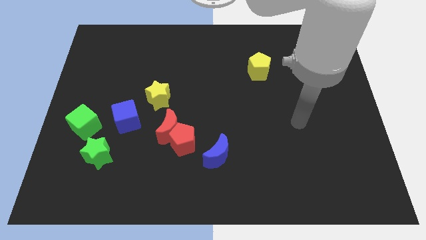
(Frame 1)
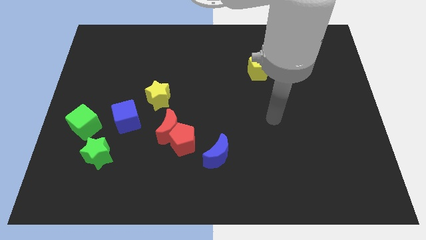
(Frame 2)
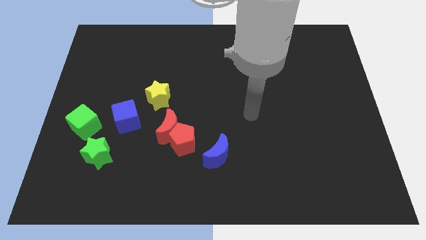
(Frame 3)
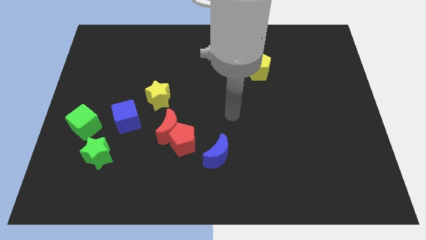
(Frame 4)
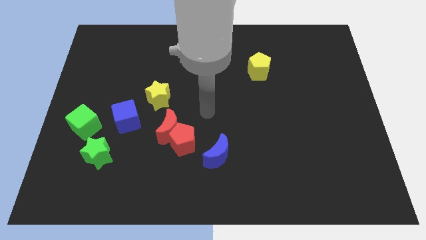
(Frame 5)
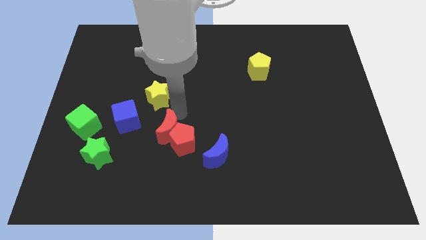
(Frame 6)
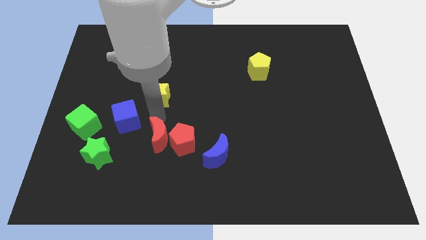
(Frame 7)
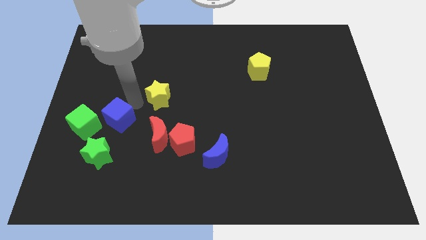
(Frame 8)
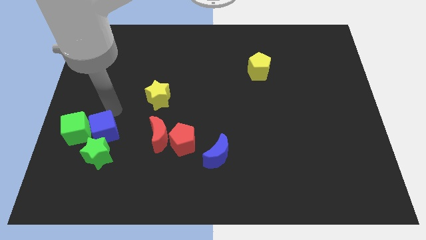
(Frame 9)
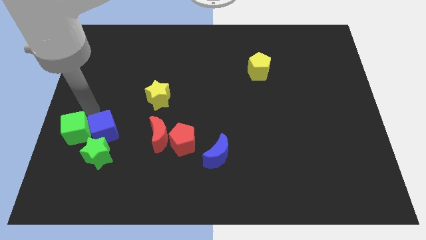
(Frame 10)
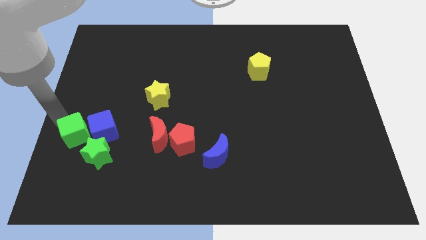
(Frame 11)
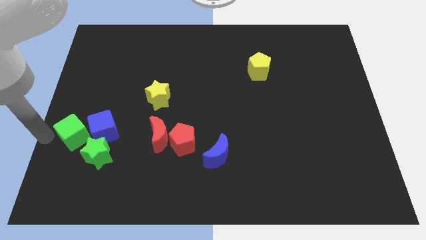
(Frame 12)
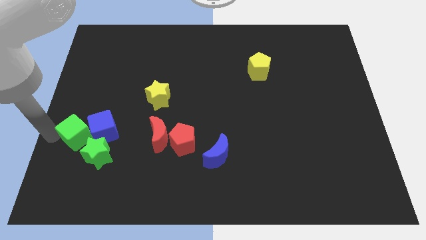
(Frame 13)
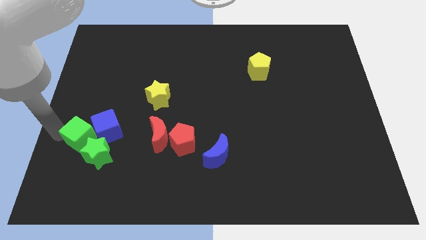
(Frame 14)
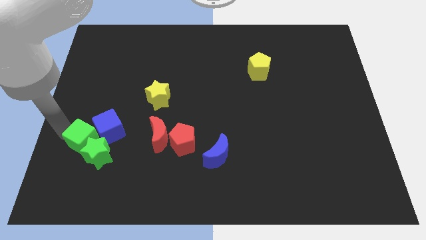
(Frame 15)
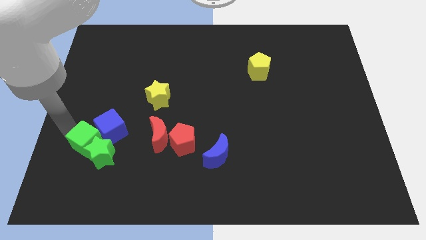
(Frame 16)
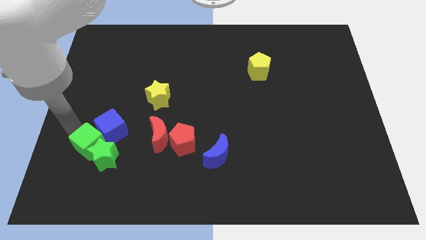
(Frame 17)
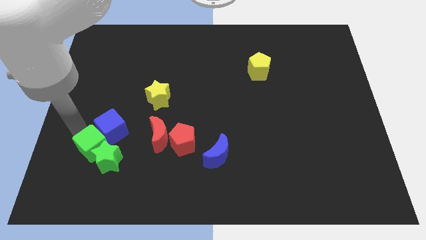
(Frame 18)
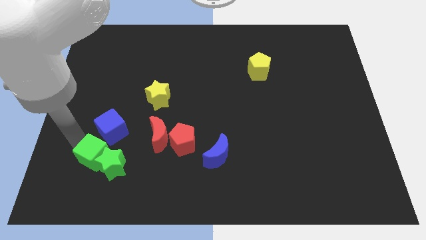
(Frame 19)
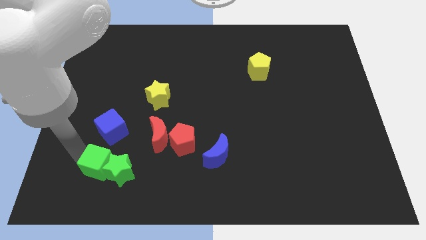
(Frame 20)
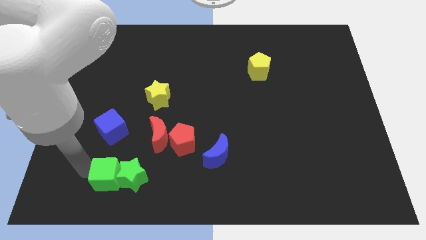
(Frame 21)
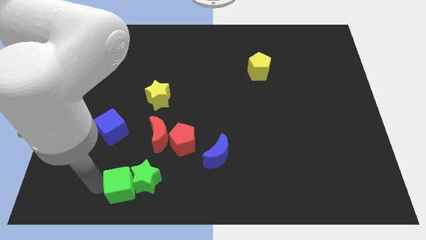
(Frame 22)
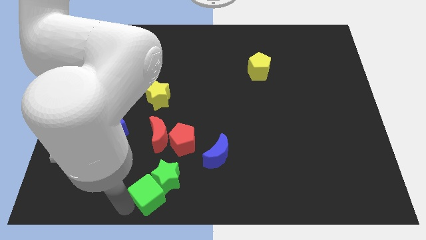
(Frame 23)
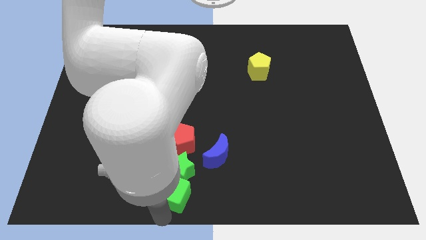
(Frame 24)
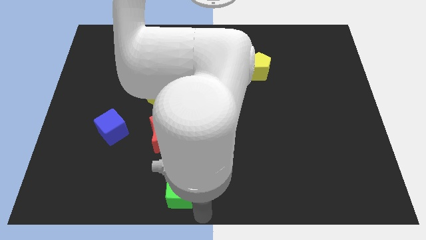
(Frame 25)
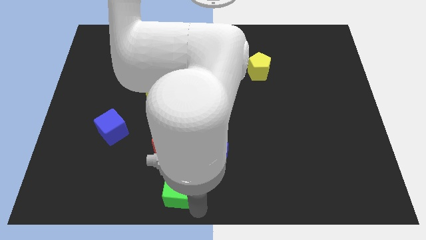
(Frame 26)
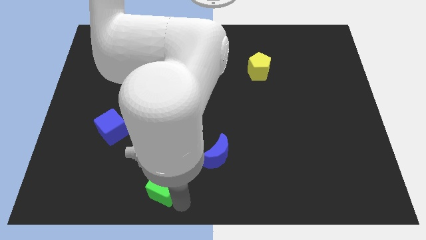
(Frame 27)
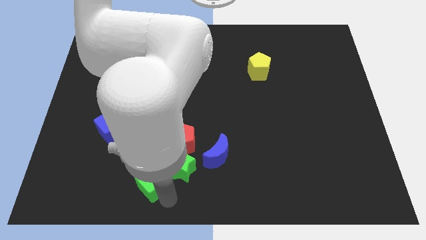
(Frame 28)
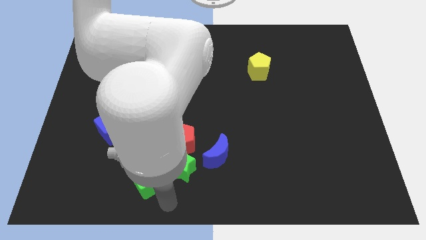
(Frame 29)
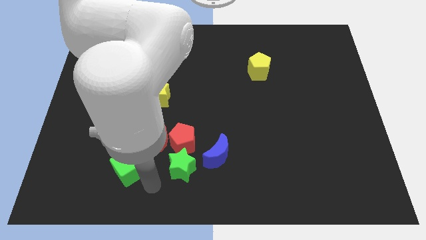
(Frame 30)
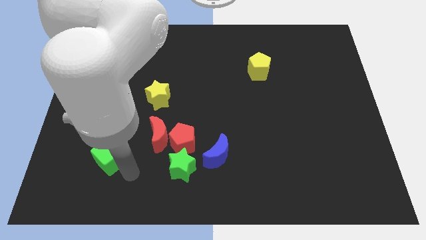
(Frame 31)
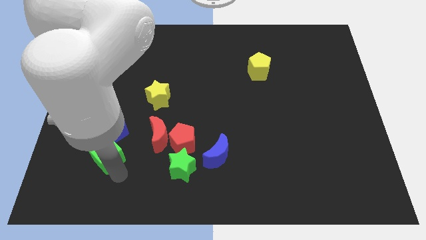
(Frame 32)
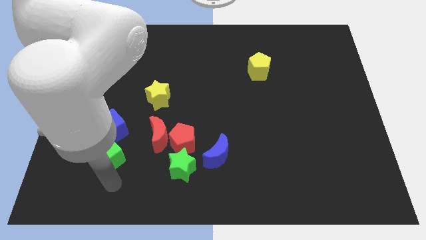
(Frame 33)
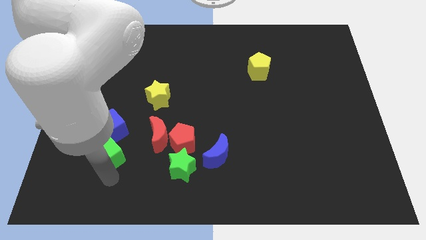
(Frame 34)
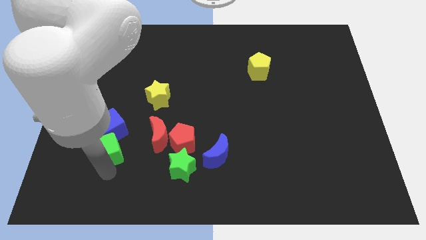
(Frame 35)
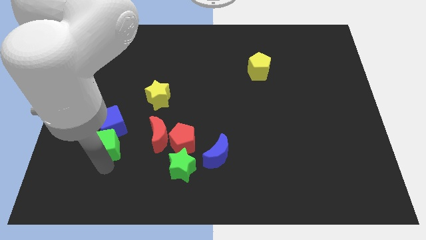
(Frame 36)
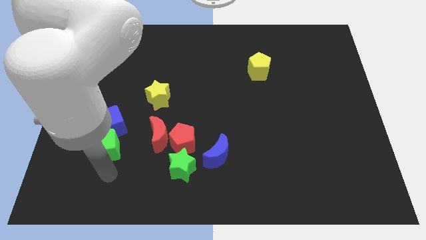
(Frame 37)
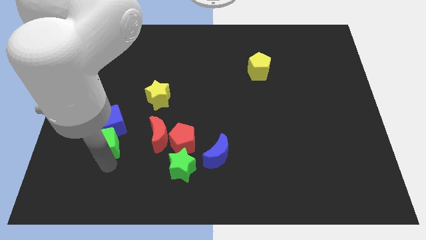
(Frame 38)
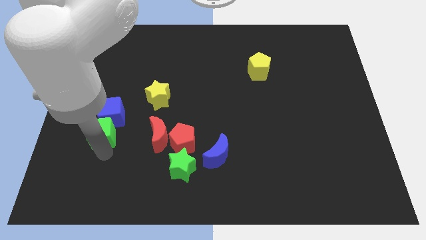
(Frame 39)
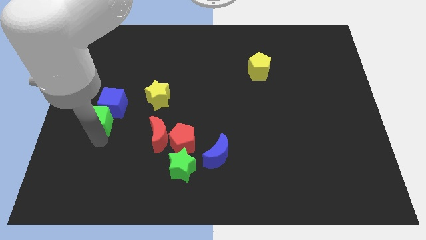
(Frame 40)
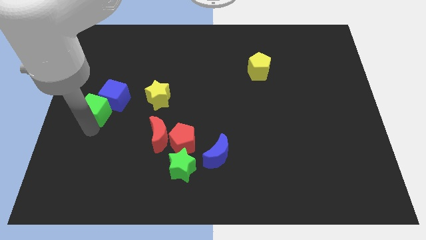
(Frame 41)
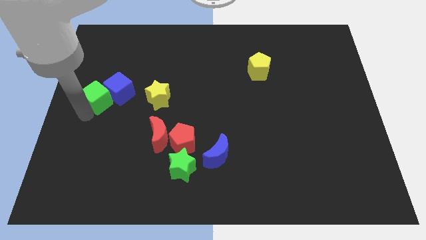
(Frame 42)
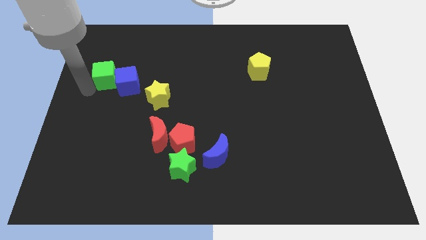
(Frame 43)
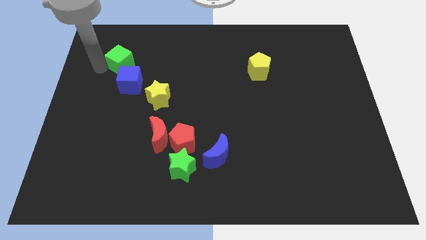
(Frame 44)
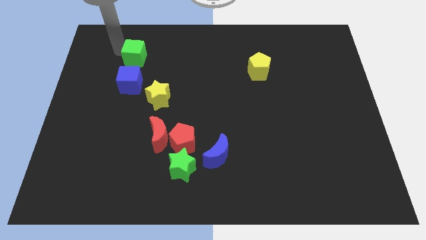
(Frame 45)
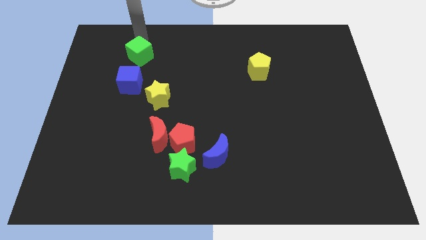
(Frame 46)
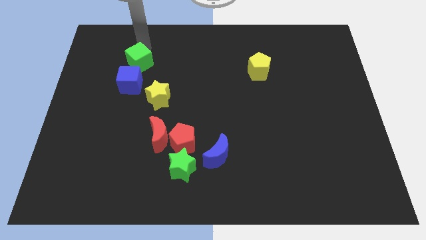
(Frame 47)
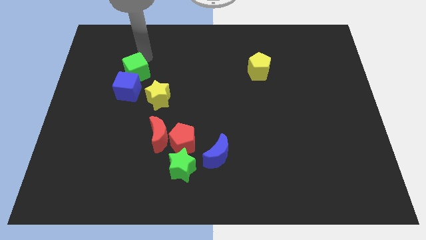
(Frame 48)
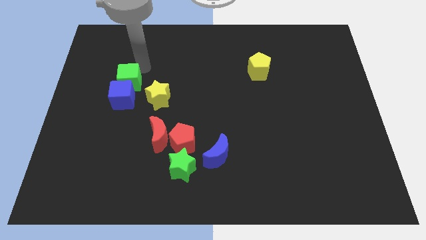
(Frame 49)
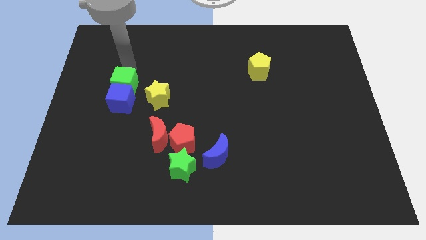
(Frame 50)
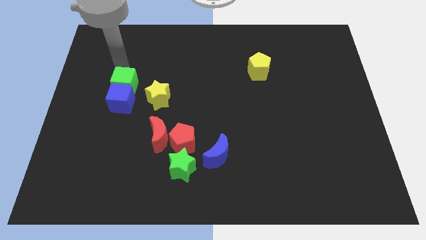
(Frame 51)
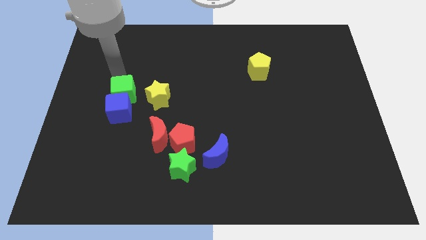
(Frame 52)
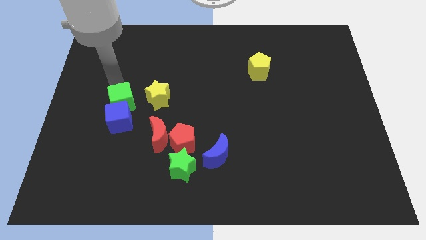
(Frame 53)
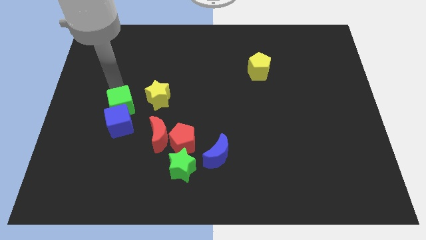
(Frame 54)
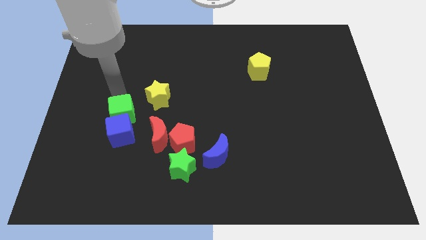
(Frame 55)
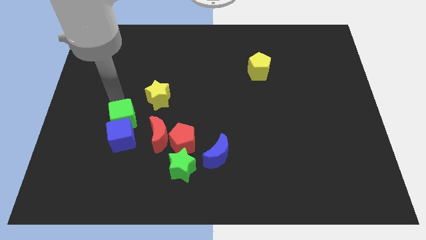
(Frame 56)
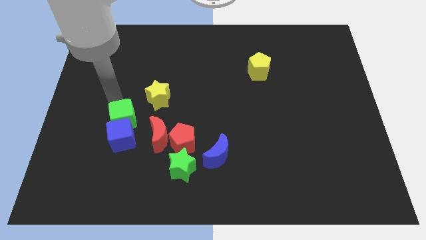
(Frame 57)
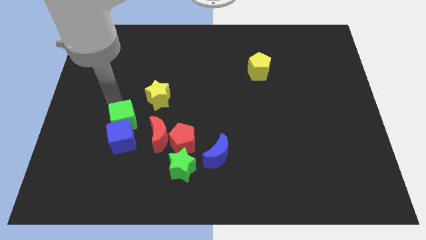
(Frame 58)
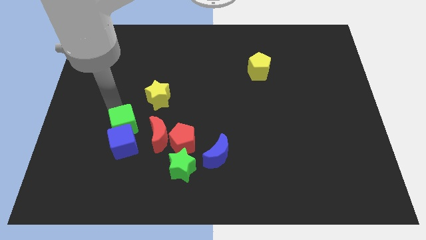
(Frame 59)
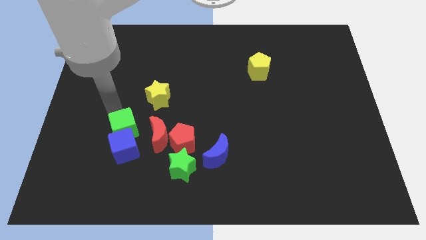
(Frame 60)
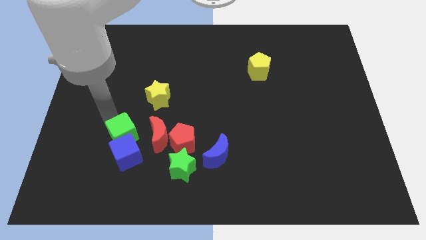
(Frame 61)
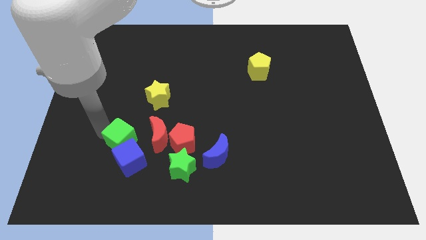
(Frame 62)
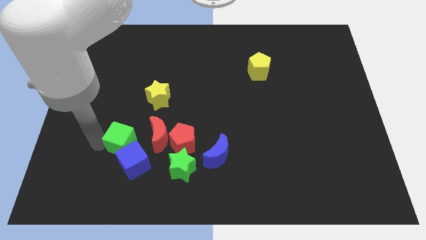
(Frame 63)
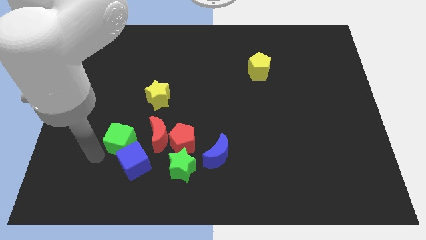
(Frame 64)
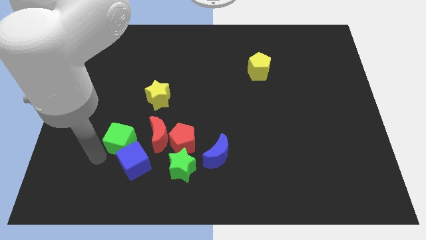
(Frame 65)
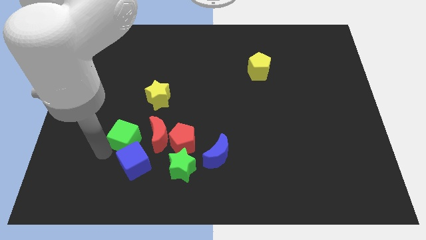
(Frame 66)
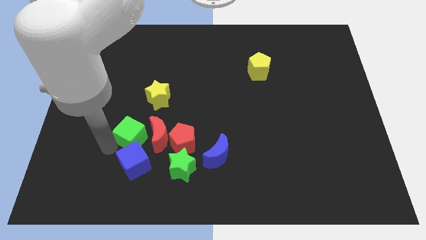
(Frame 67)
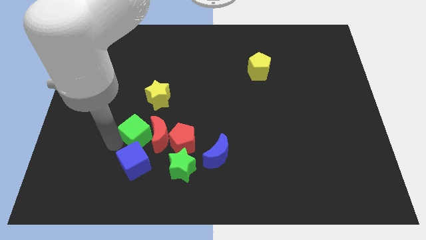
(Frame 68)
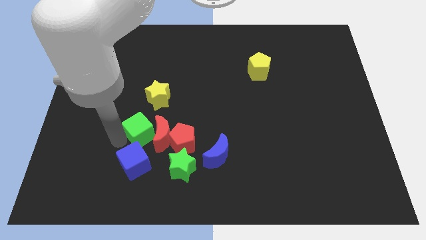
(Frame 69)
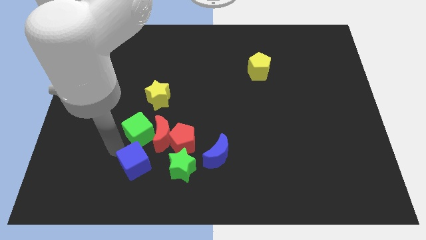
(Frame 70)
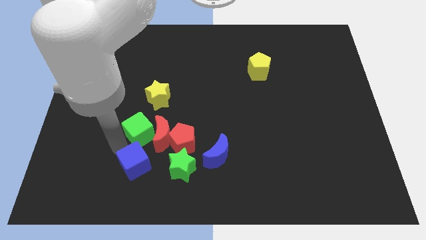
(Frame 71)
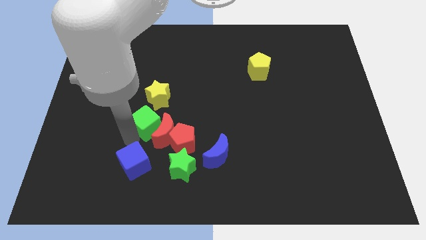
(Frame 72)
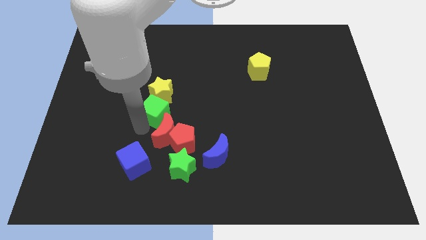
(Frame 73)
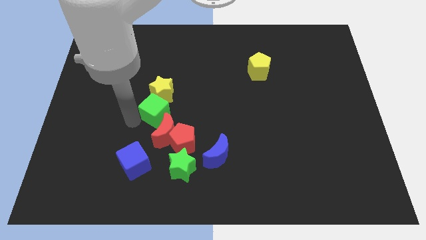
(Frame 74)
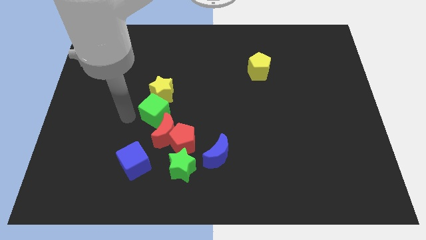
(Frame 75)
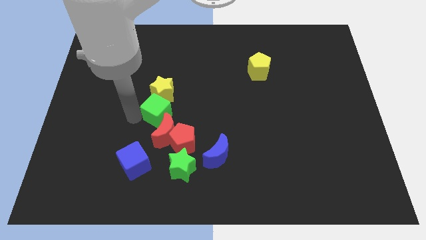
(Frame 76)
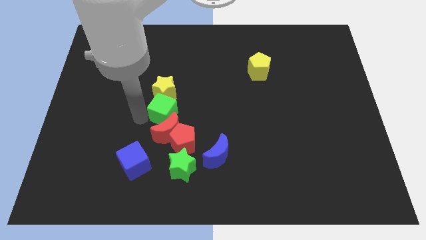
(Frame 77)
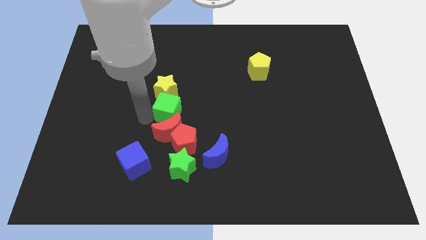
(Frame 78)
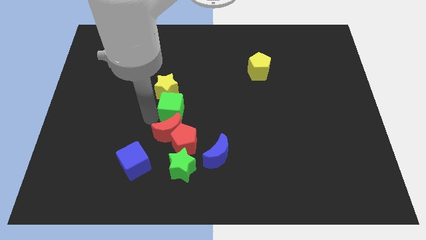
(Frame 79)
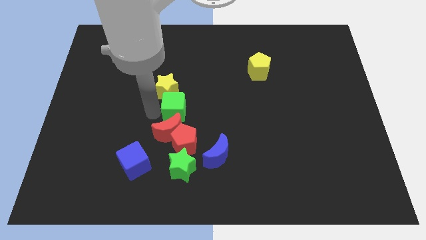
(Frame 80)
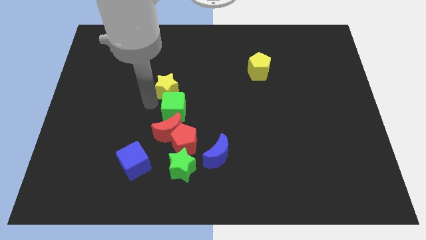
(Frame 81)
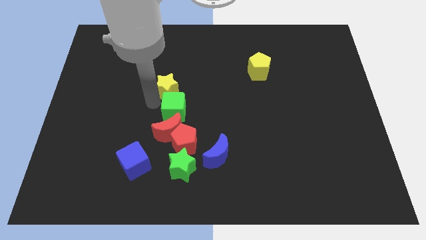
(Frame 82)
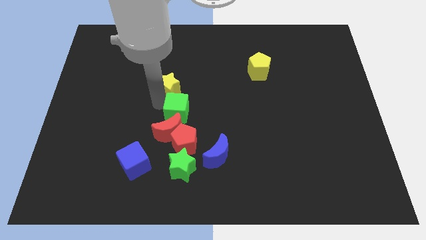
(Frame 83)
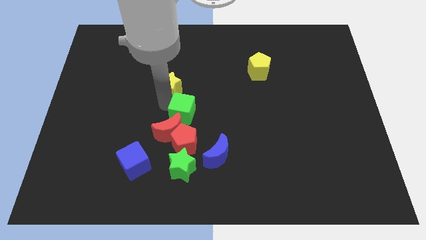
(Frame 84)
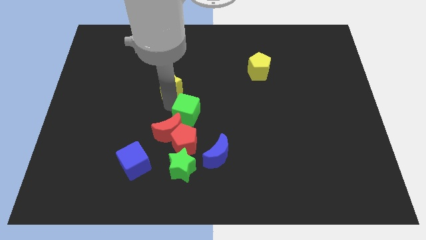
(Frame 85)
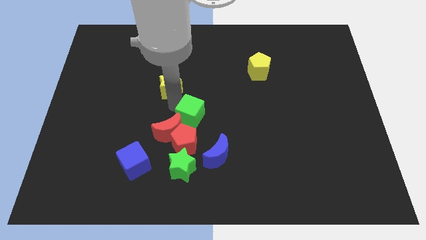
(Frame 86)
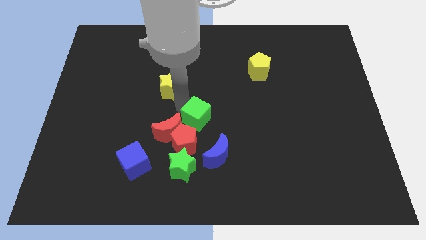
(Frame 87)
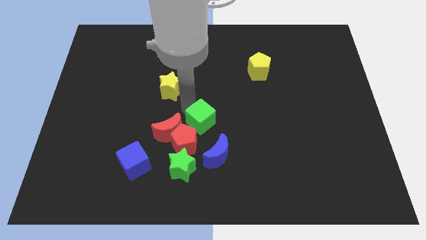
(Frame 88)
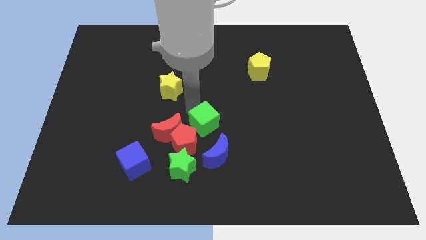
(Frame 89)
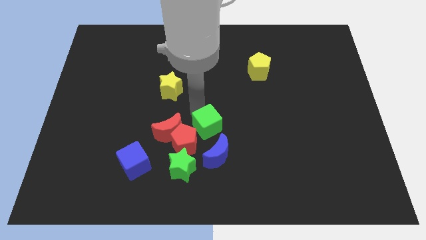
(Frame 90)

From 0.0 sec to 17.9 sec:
move the green cube just right of the red pentagon
